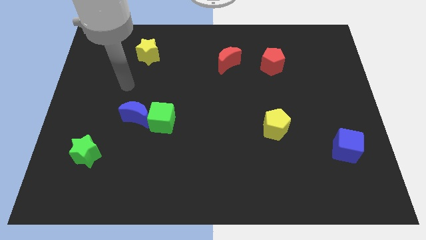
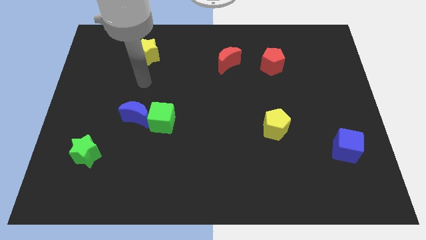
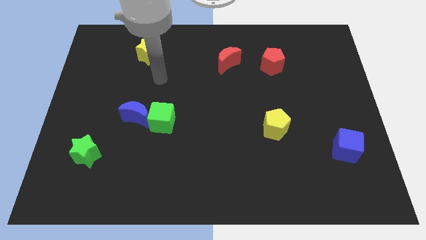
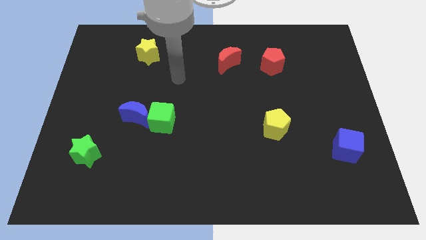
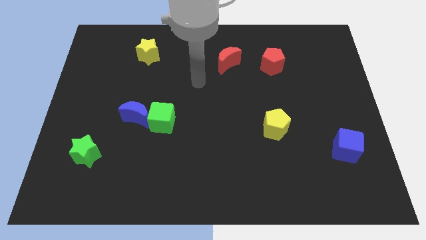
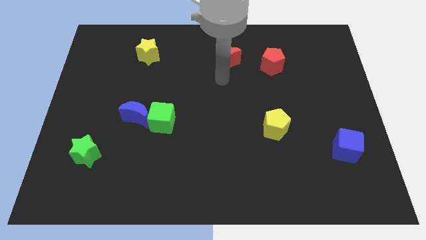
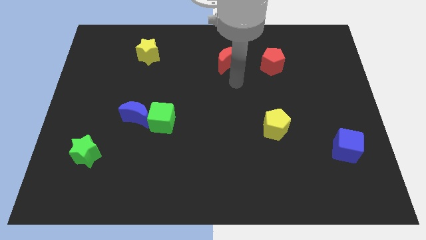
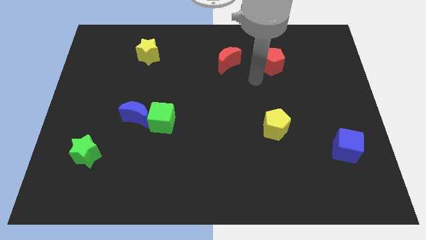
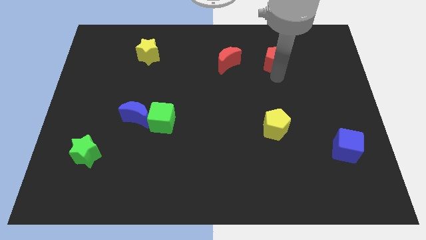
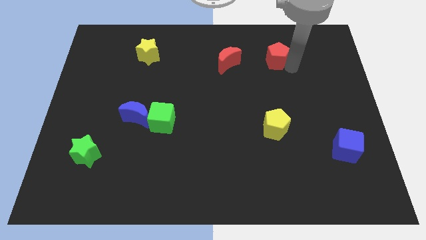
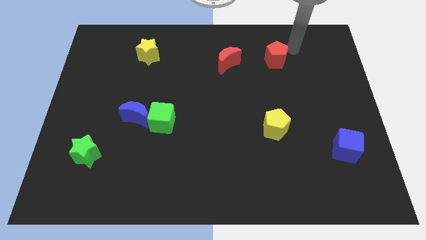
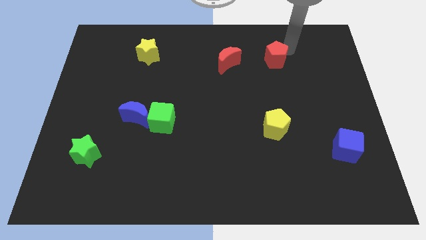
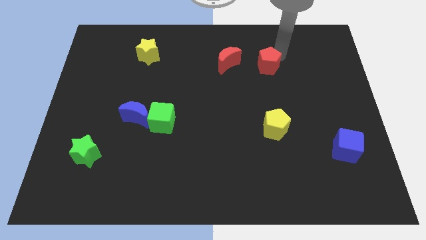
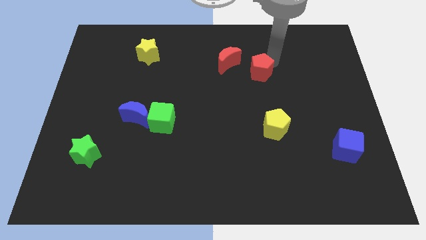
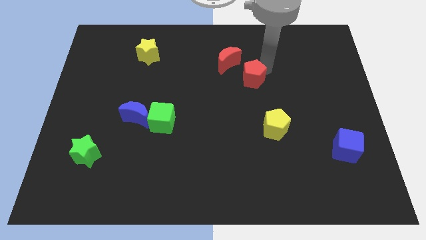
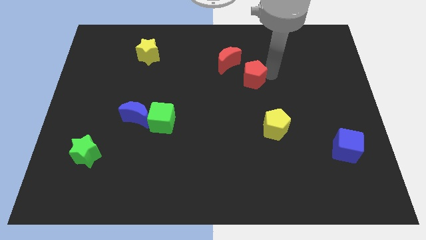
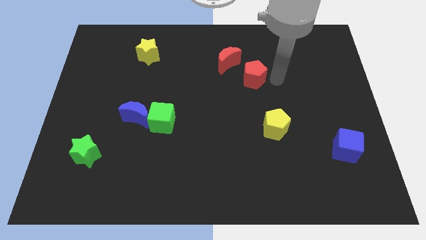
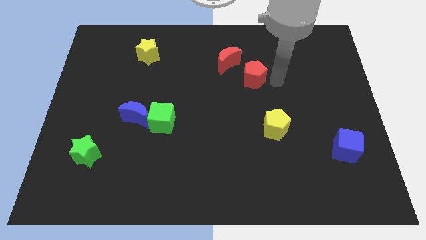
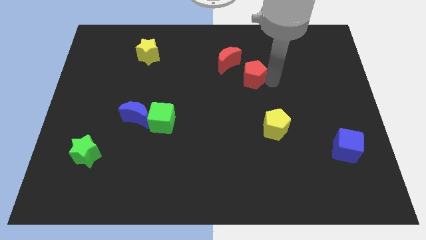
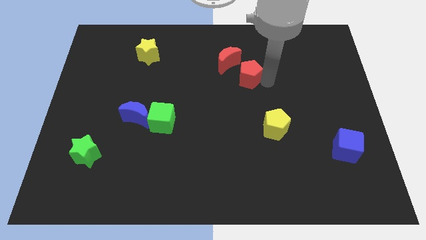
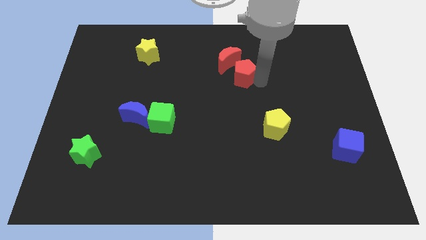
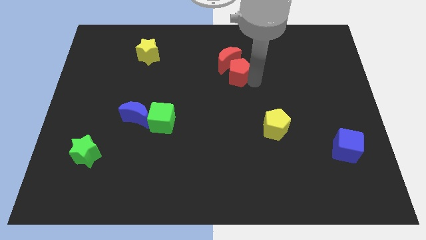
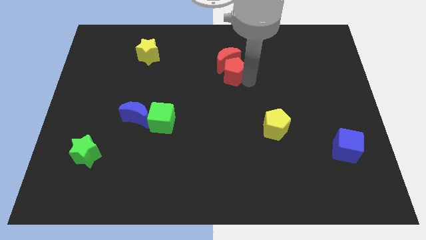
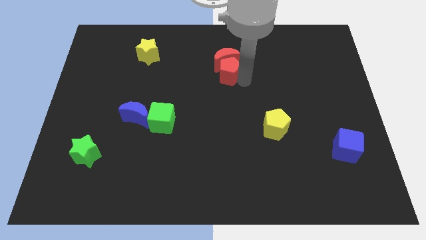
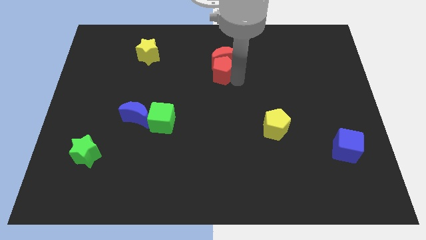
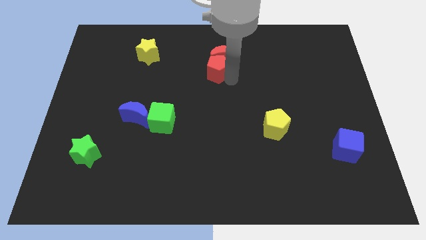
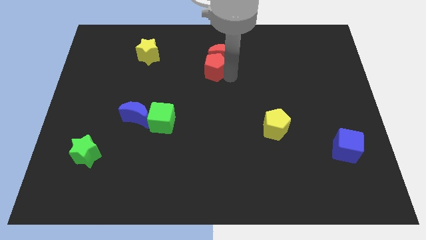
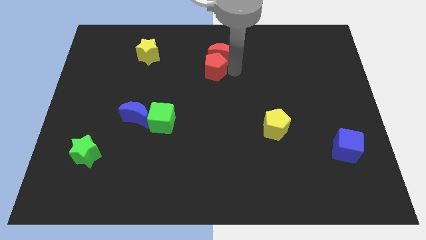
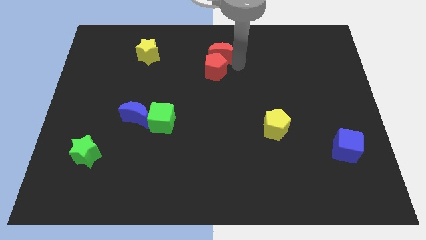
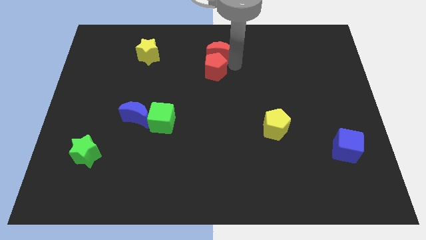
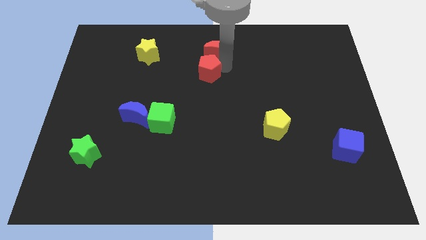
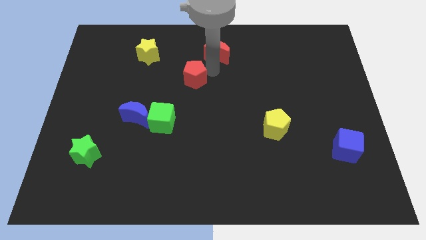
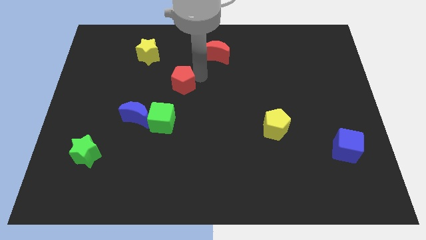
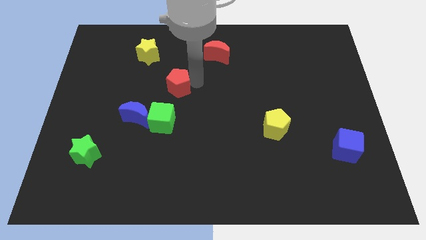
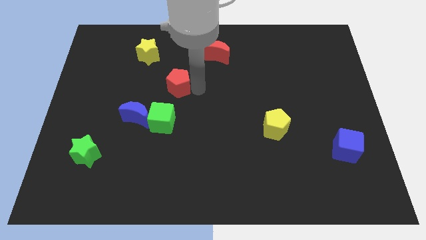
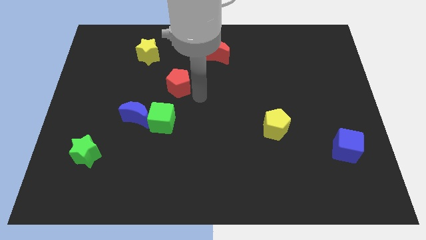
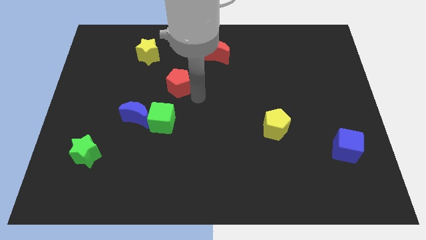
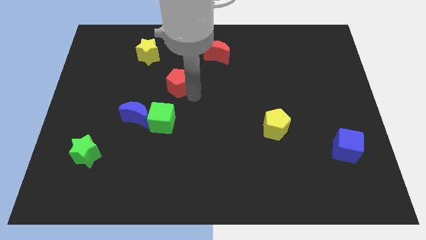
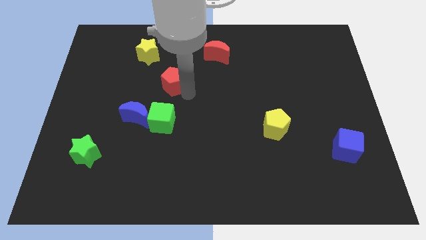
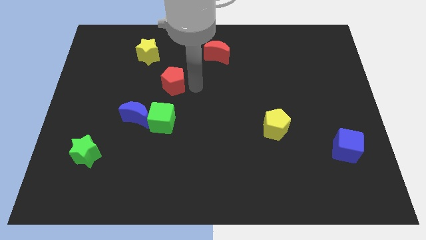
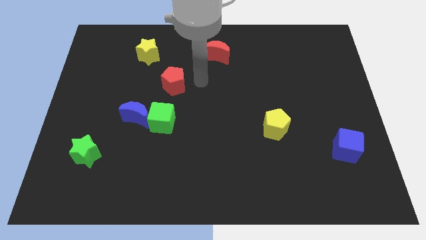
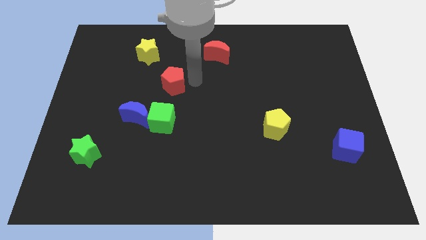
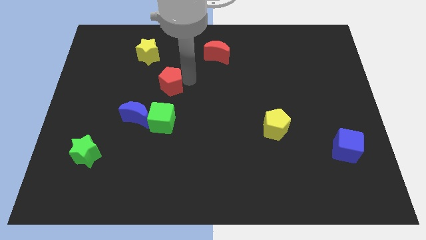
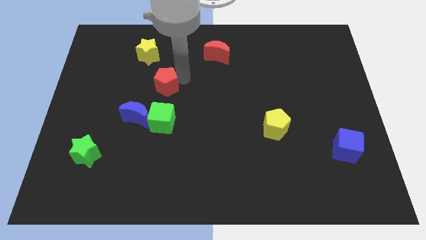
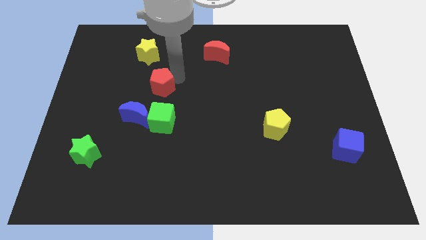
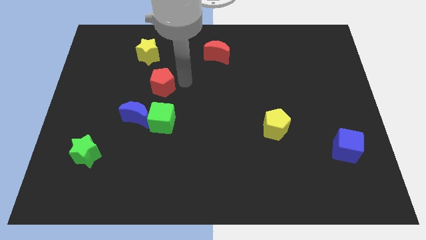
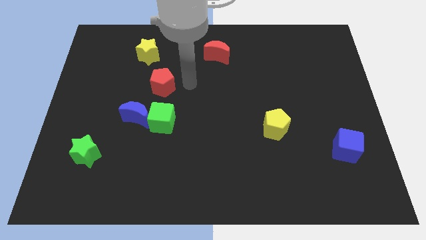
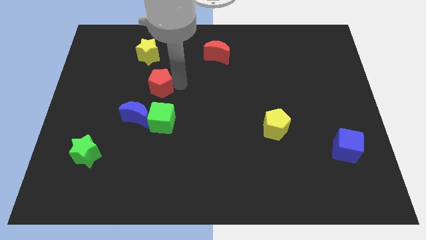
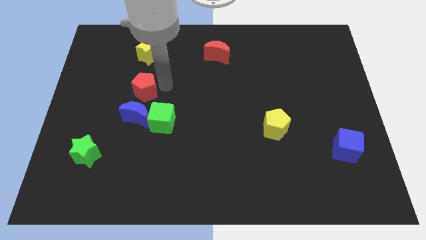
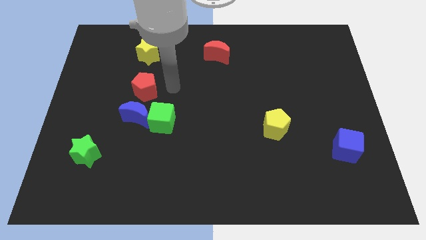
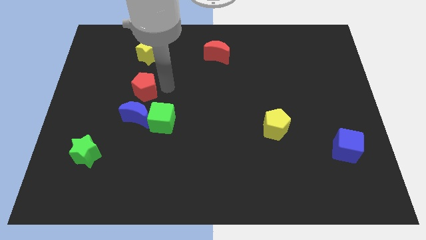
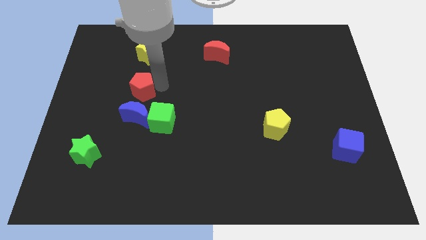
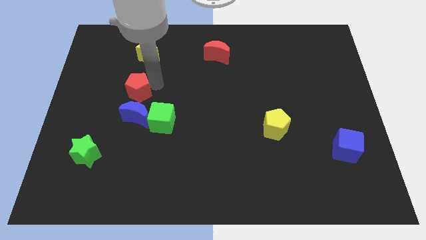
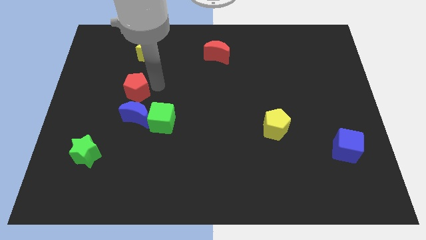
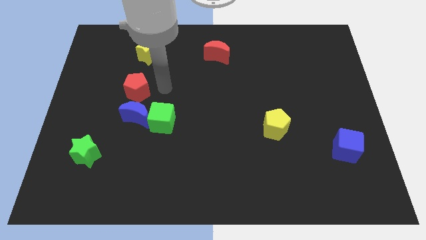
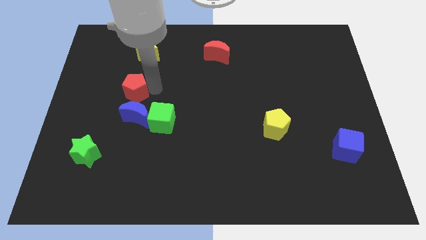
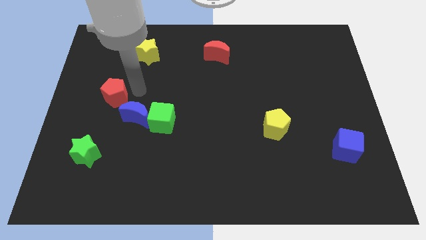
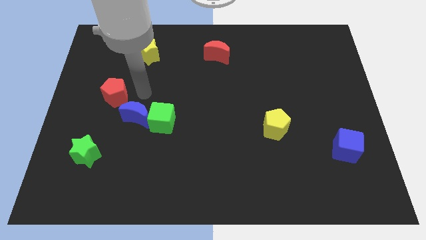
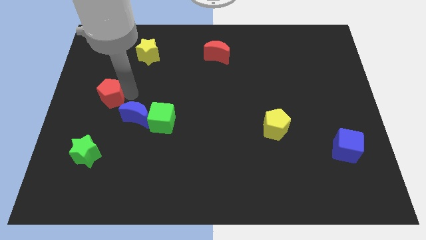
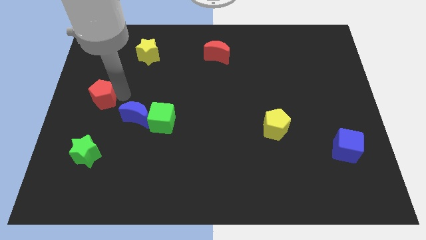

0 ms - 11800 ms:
put the red pentagon to the left side of the board
